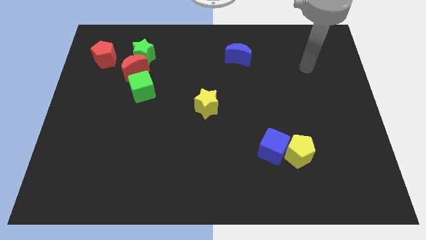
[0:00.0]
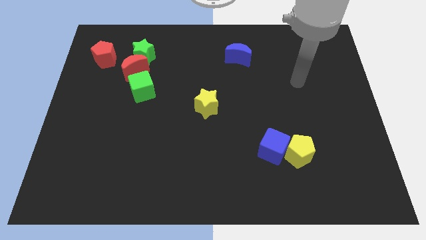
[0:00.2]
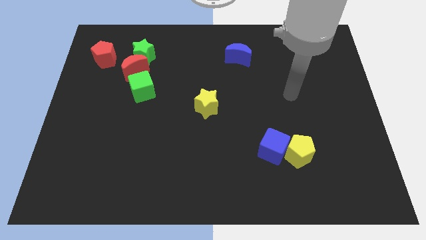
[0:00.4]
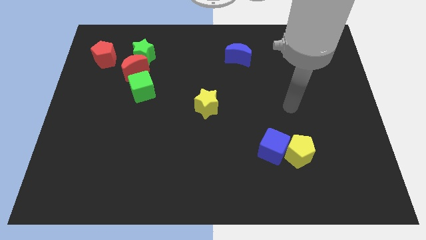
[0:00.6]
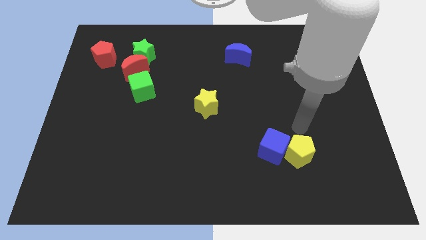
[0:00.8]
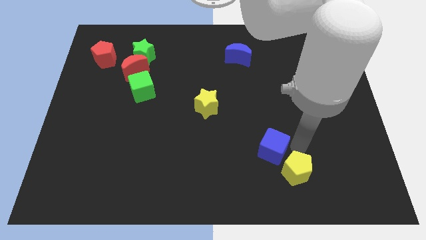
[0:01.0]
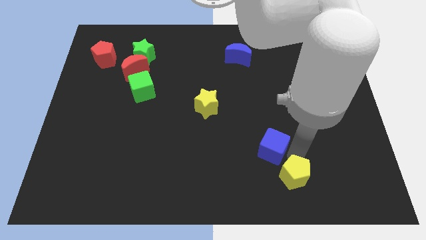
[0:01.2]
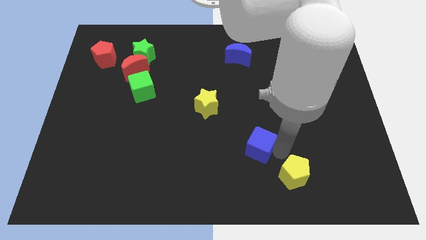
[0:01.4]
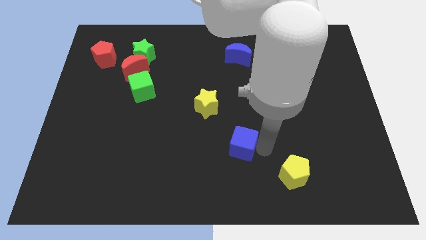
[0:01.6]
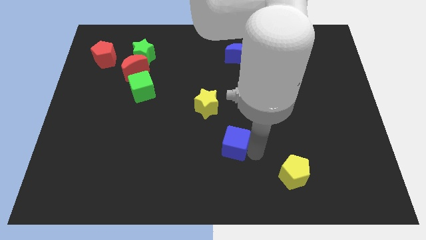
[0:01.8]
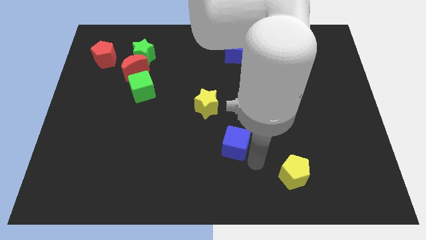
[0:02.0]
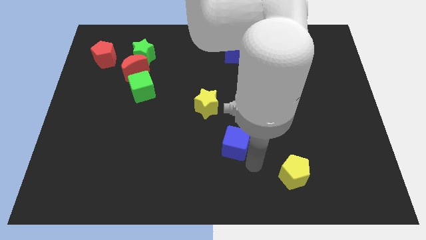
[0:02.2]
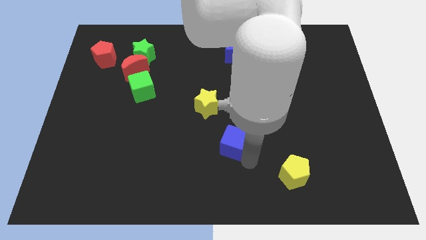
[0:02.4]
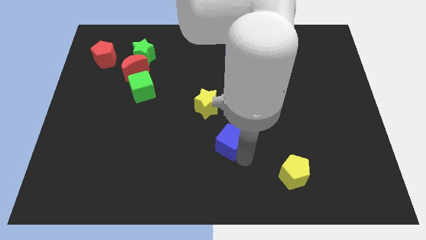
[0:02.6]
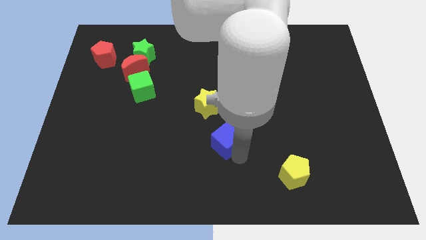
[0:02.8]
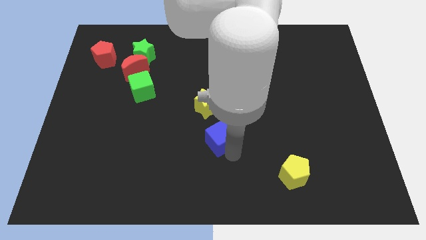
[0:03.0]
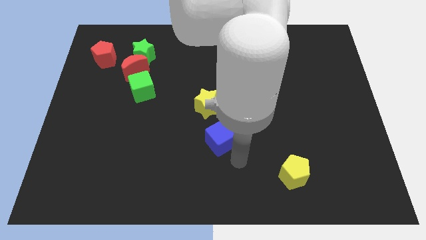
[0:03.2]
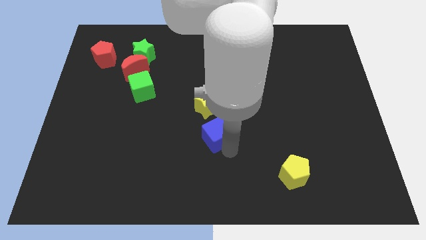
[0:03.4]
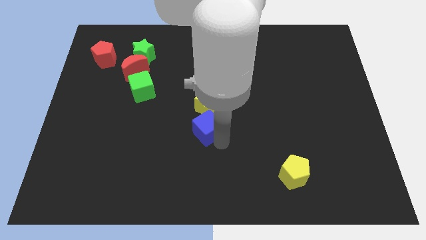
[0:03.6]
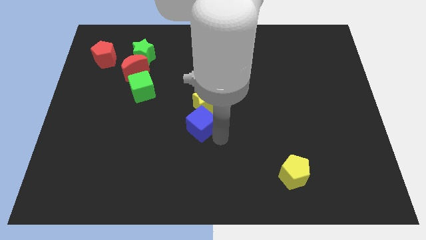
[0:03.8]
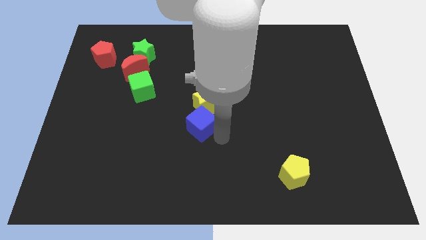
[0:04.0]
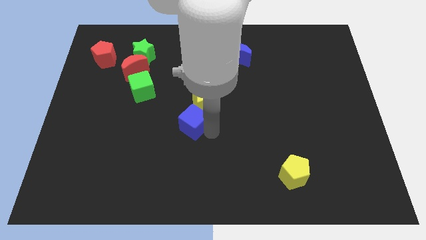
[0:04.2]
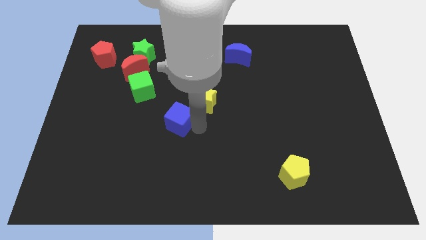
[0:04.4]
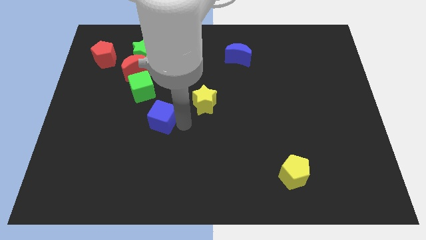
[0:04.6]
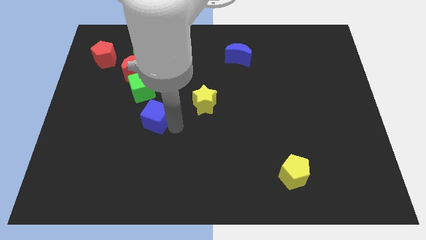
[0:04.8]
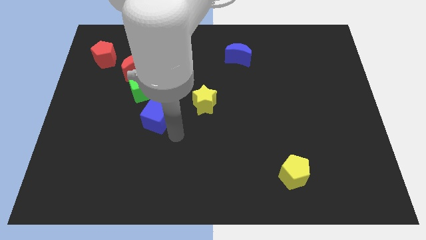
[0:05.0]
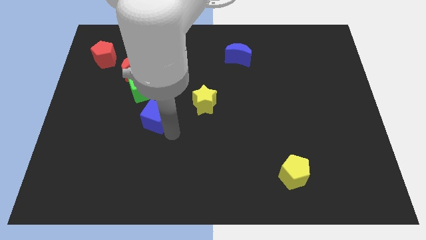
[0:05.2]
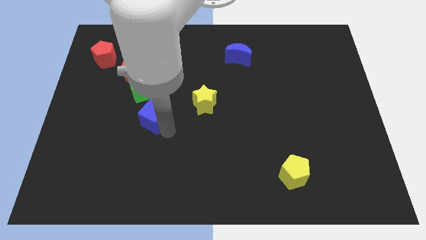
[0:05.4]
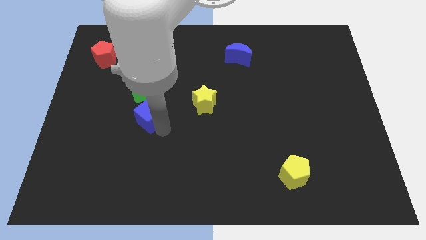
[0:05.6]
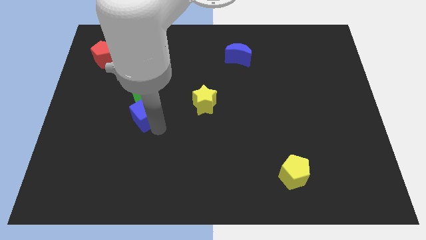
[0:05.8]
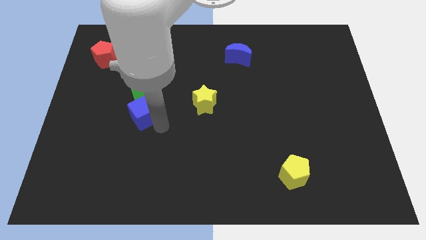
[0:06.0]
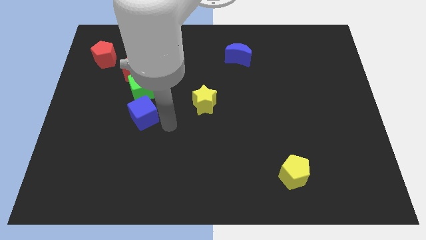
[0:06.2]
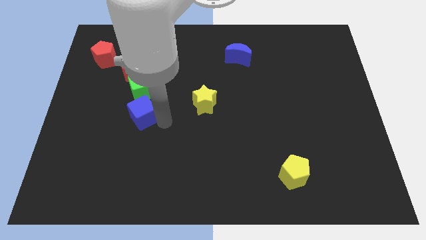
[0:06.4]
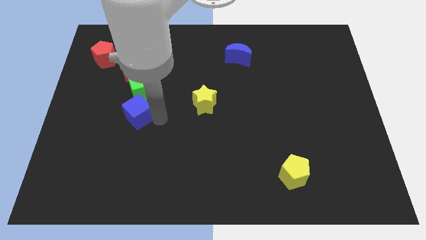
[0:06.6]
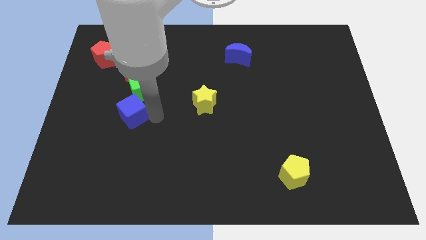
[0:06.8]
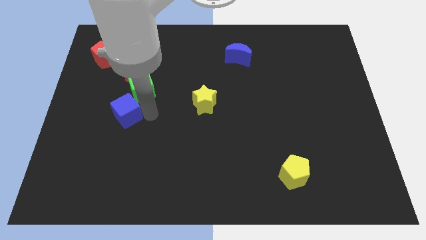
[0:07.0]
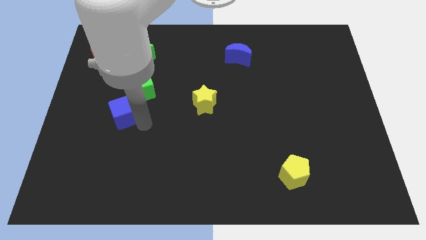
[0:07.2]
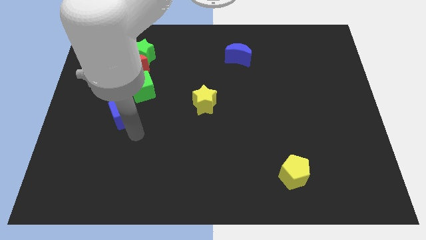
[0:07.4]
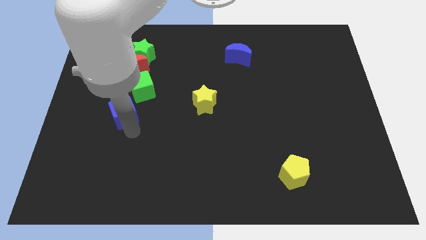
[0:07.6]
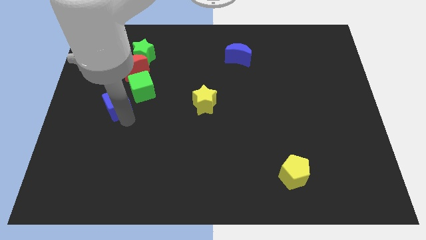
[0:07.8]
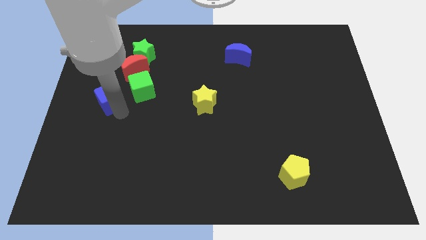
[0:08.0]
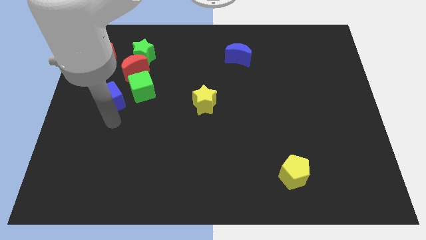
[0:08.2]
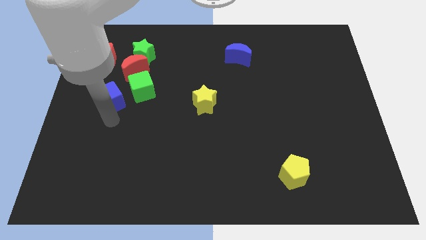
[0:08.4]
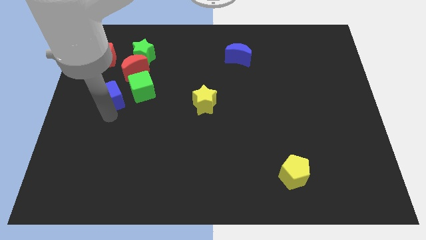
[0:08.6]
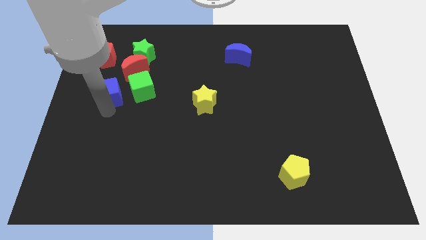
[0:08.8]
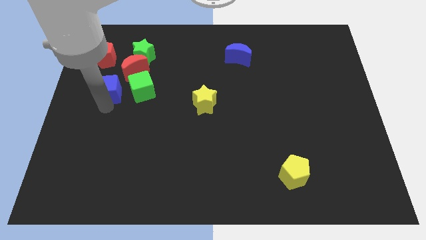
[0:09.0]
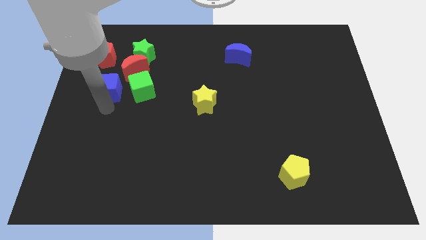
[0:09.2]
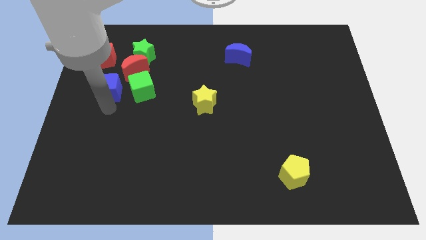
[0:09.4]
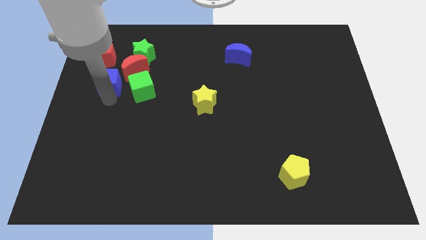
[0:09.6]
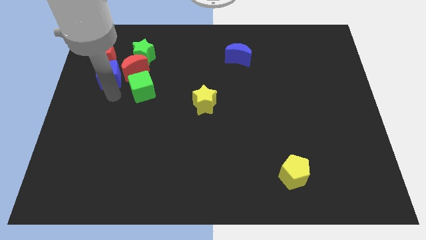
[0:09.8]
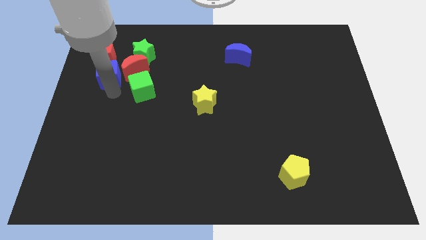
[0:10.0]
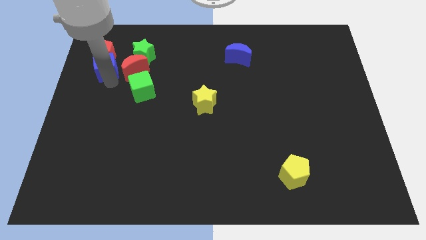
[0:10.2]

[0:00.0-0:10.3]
move the blue cube to the red pentagon

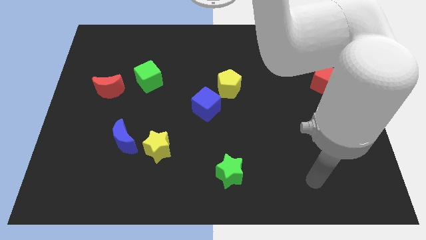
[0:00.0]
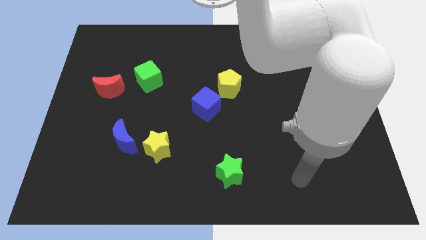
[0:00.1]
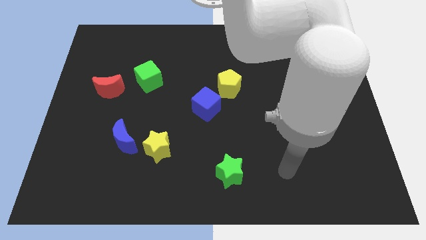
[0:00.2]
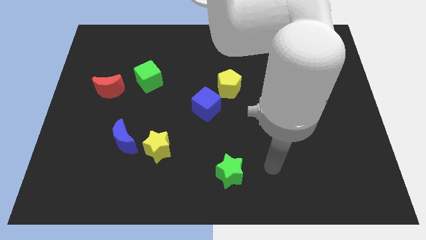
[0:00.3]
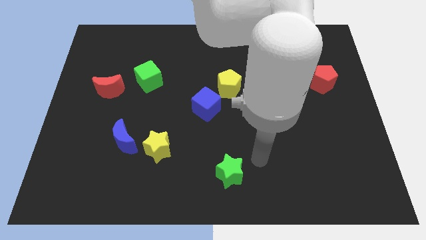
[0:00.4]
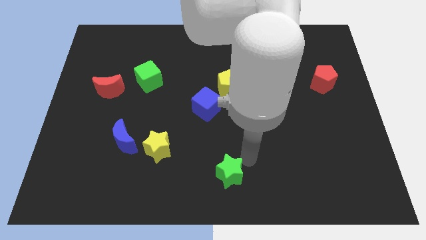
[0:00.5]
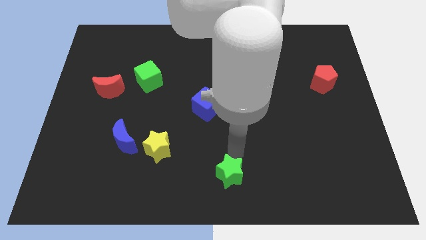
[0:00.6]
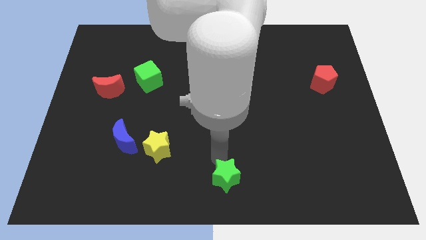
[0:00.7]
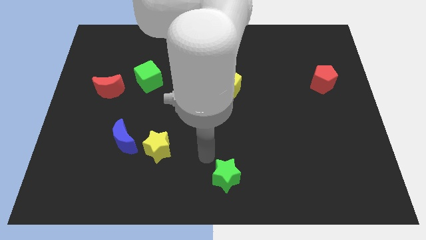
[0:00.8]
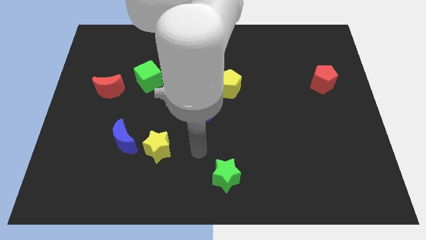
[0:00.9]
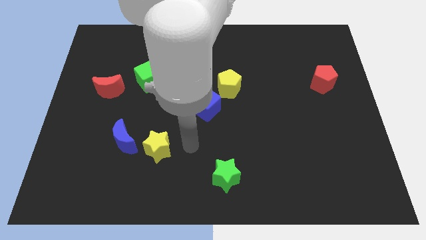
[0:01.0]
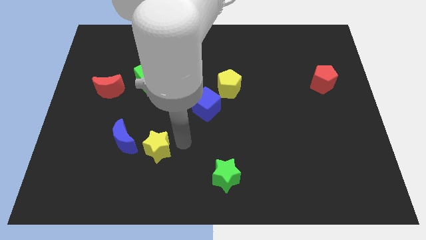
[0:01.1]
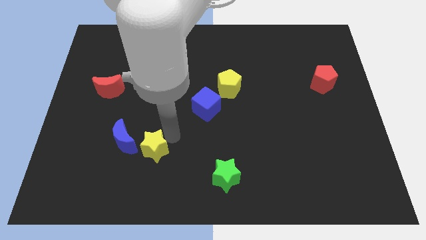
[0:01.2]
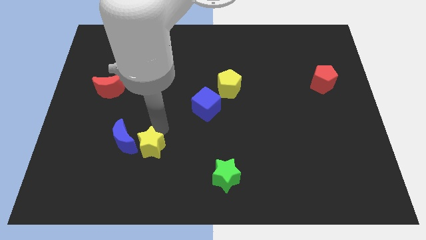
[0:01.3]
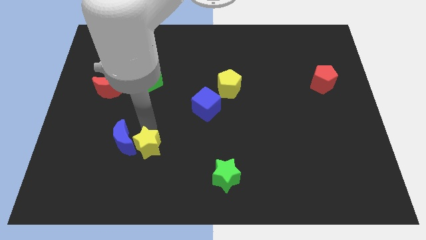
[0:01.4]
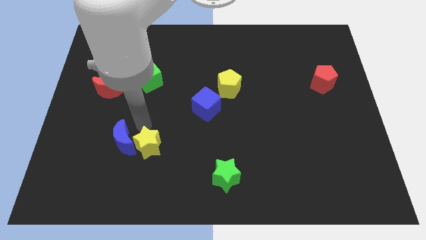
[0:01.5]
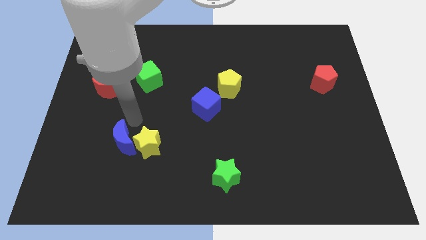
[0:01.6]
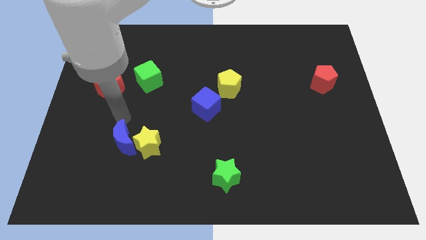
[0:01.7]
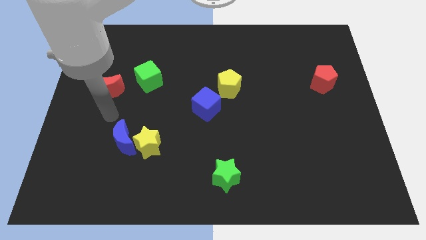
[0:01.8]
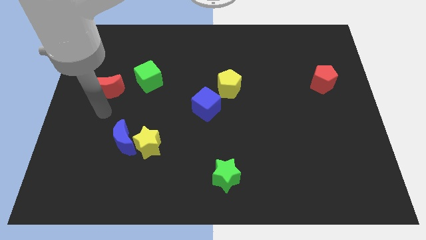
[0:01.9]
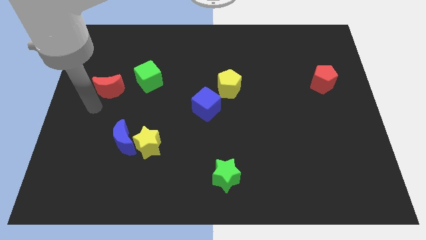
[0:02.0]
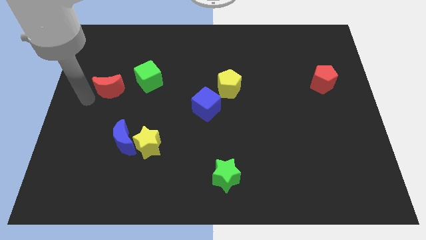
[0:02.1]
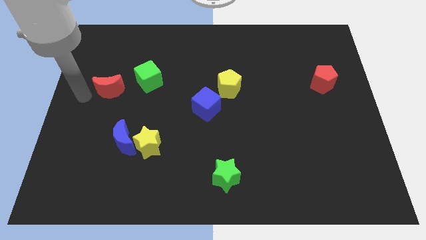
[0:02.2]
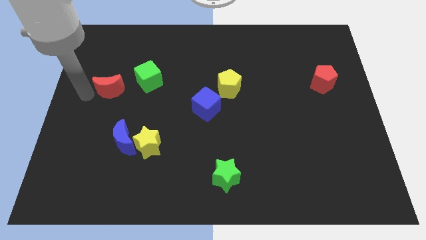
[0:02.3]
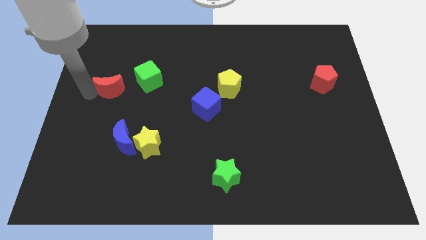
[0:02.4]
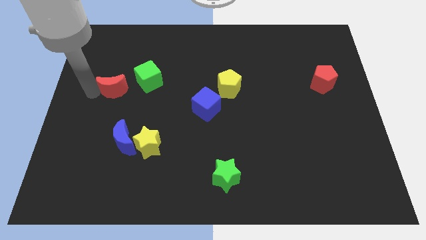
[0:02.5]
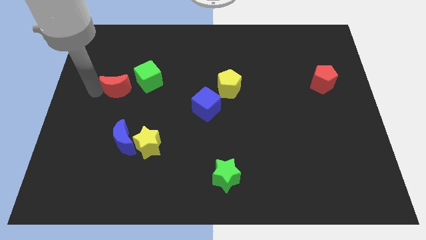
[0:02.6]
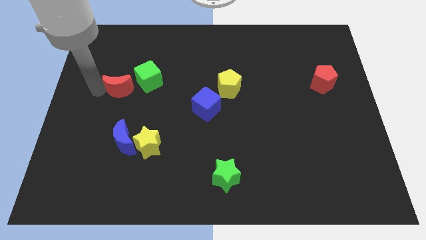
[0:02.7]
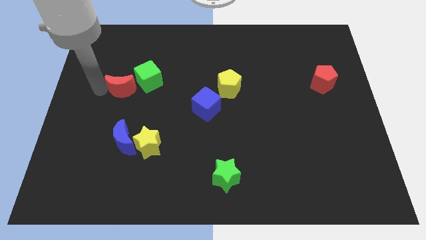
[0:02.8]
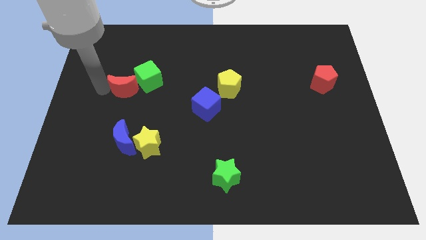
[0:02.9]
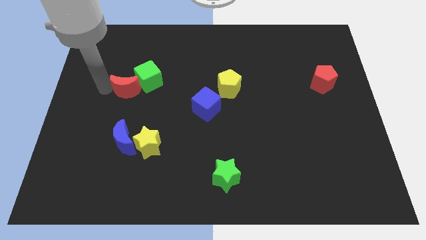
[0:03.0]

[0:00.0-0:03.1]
slide the red moon to the green cube
